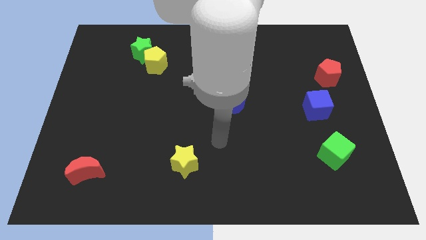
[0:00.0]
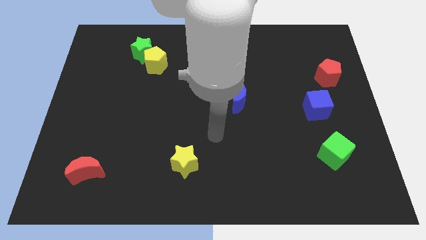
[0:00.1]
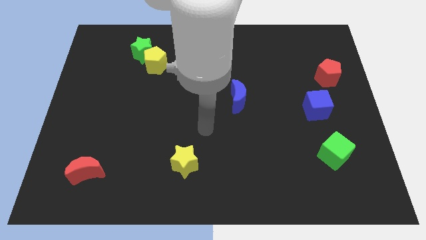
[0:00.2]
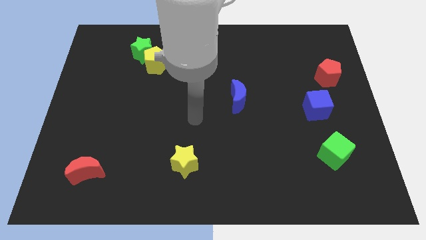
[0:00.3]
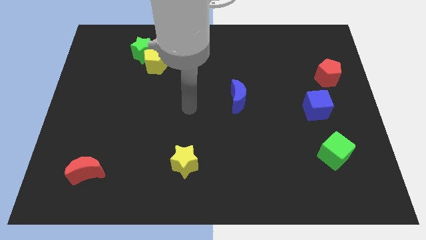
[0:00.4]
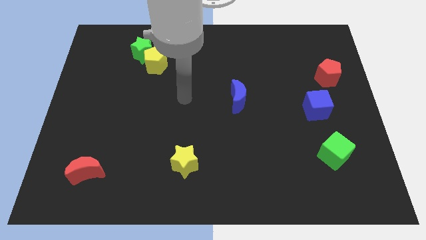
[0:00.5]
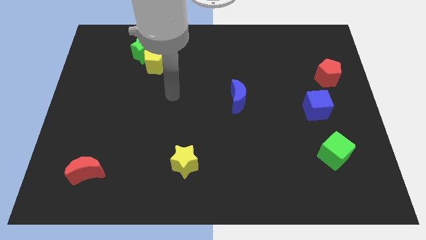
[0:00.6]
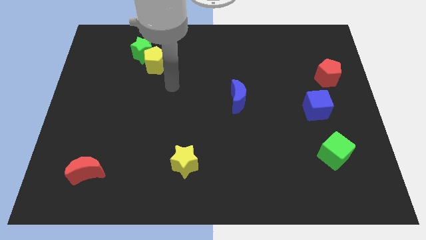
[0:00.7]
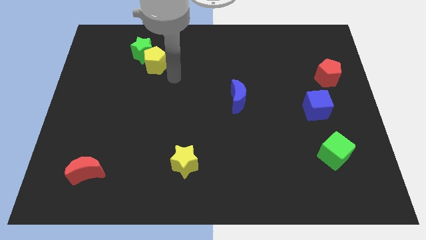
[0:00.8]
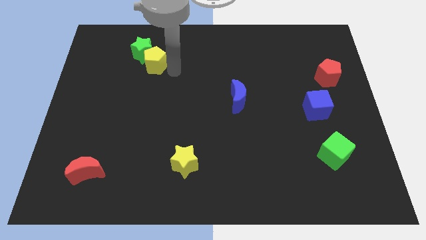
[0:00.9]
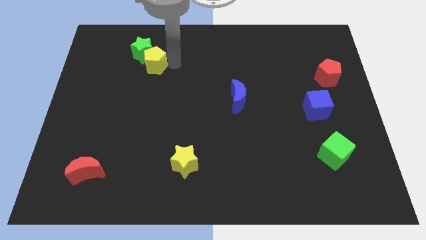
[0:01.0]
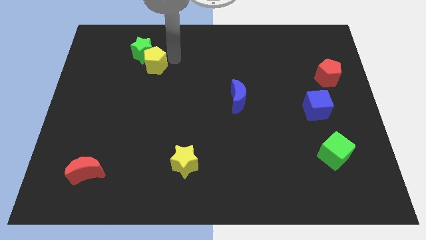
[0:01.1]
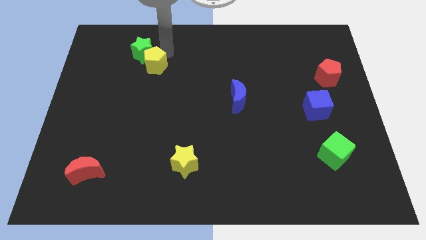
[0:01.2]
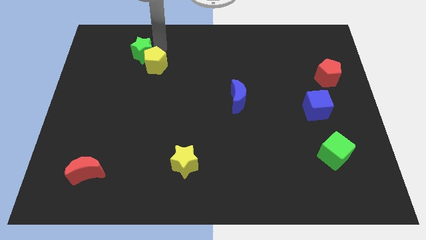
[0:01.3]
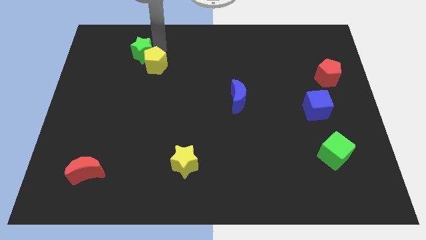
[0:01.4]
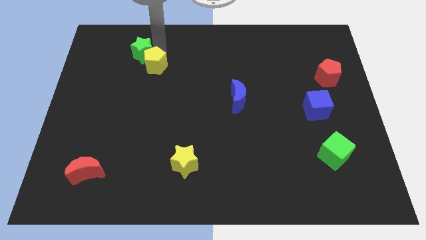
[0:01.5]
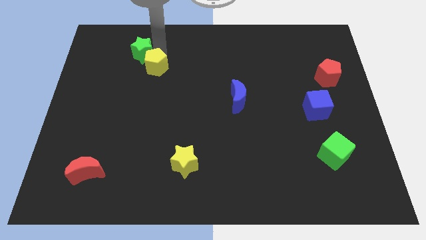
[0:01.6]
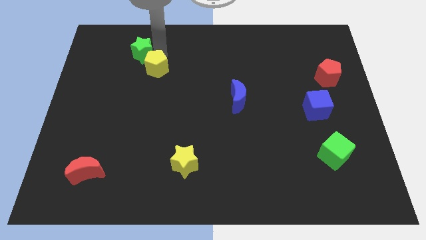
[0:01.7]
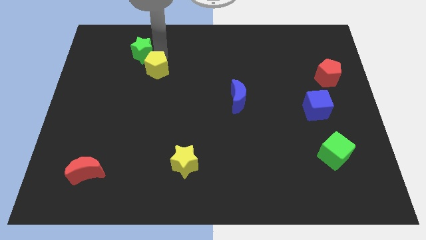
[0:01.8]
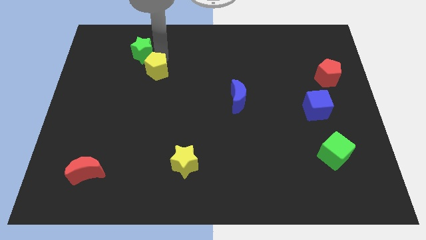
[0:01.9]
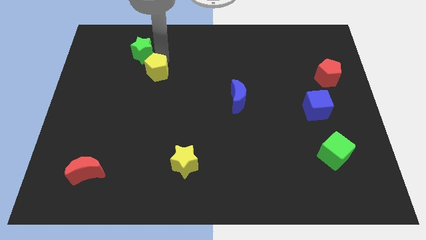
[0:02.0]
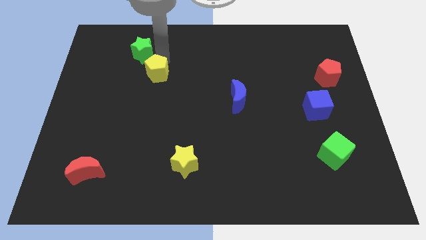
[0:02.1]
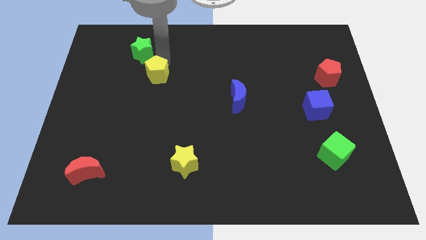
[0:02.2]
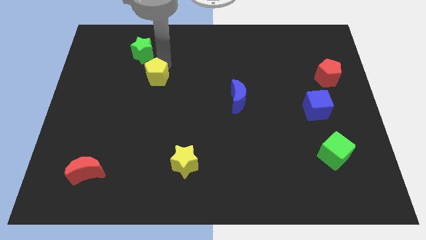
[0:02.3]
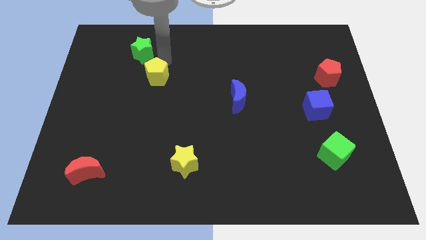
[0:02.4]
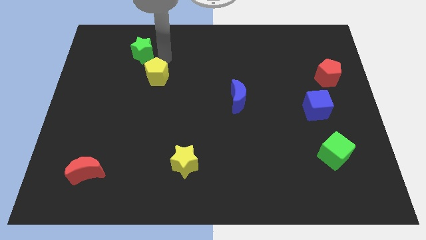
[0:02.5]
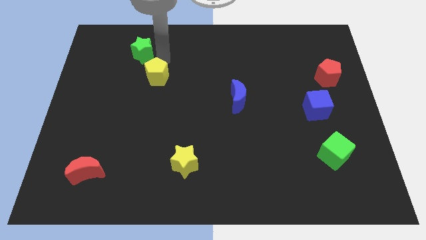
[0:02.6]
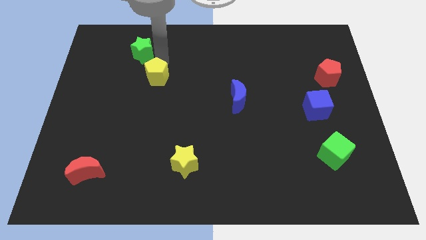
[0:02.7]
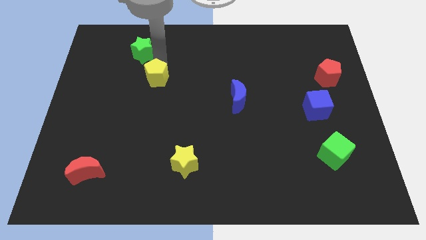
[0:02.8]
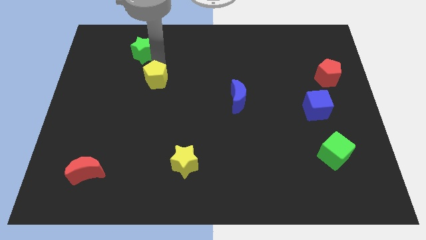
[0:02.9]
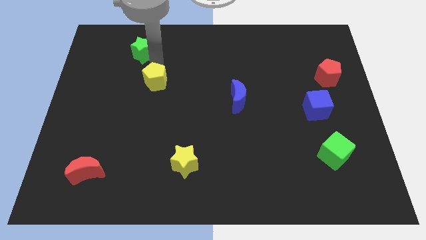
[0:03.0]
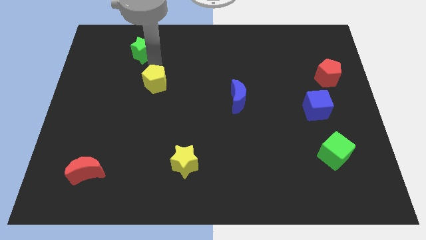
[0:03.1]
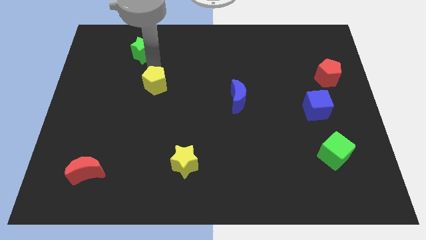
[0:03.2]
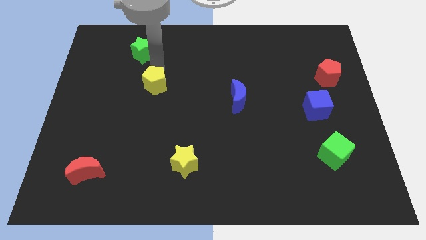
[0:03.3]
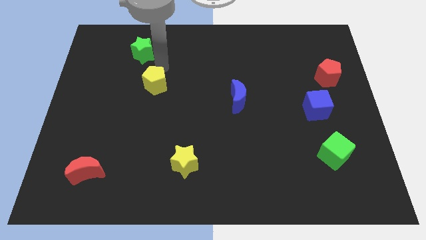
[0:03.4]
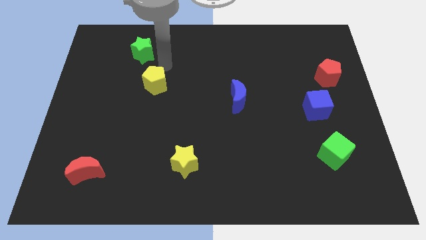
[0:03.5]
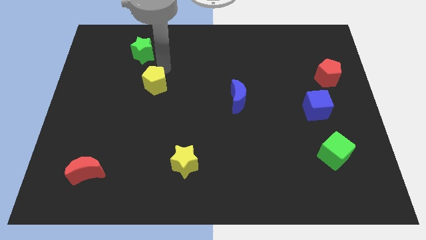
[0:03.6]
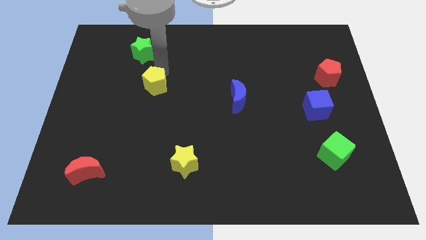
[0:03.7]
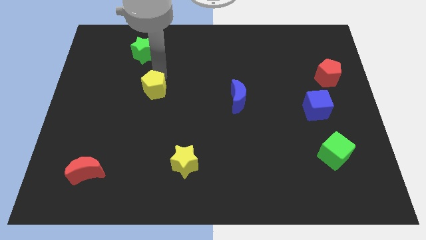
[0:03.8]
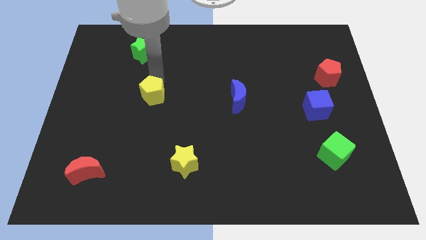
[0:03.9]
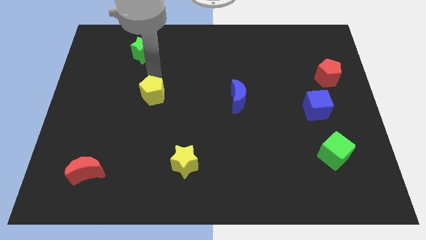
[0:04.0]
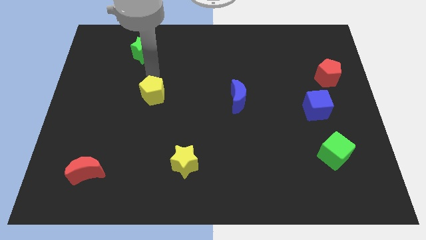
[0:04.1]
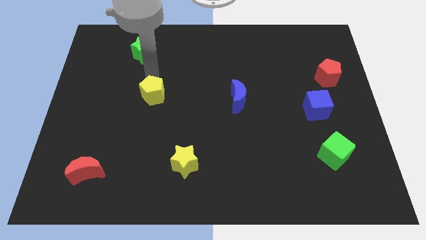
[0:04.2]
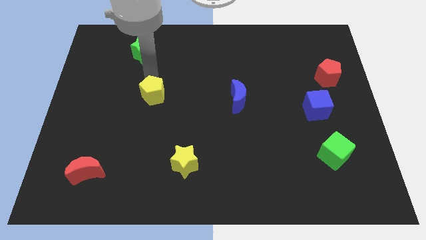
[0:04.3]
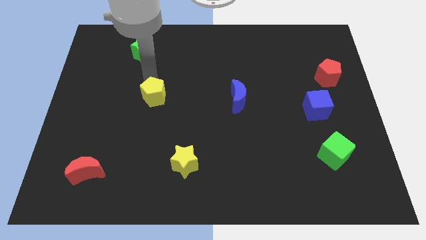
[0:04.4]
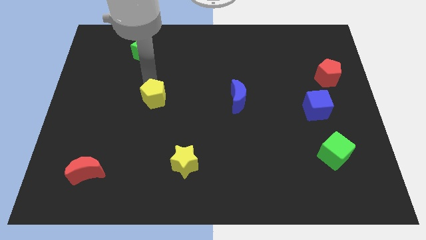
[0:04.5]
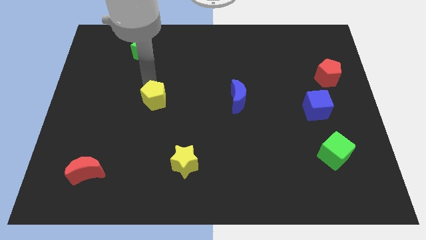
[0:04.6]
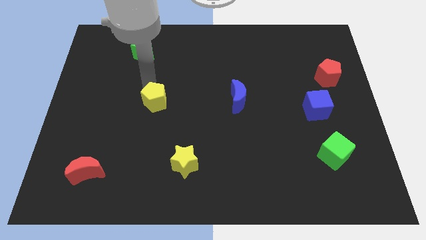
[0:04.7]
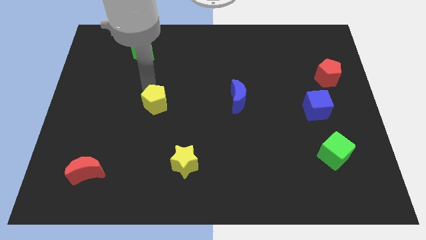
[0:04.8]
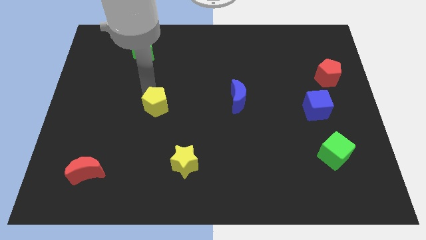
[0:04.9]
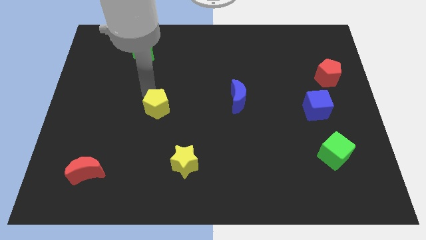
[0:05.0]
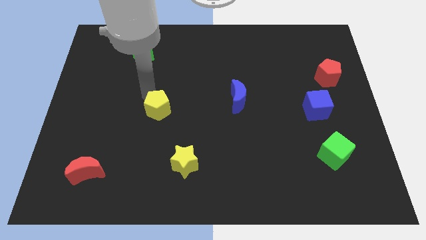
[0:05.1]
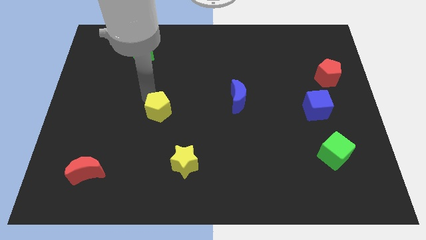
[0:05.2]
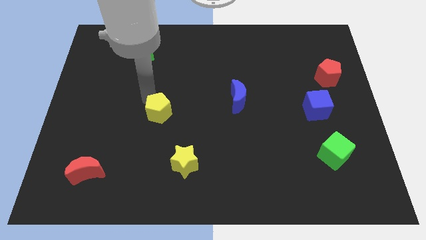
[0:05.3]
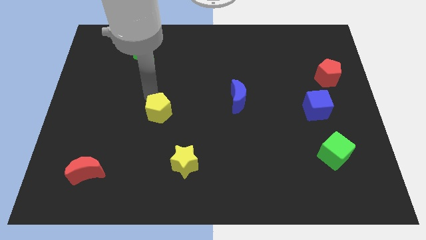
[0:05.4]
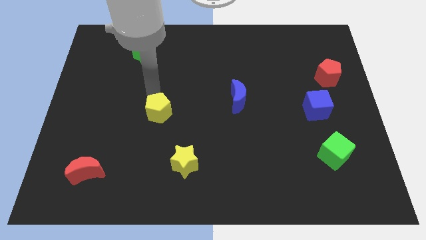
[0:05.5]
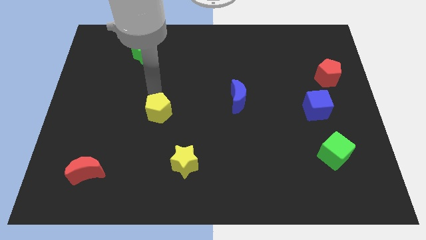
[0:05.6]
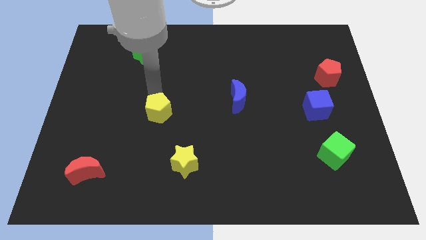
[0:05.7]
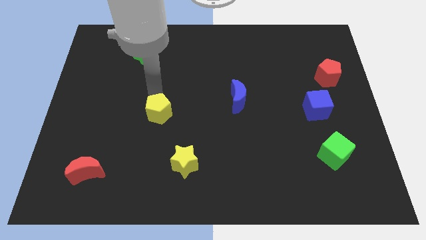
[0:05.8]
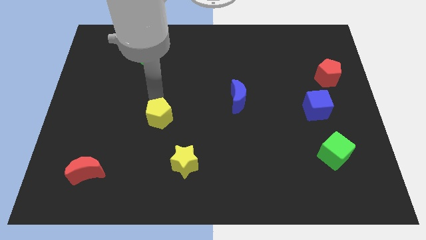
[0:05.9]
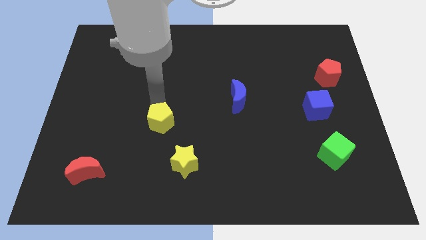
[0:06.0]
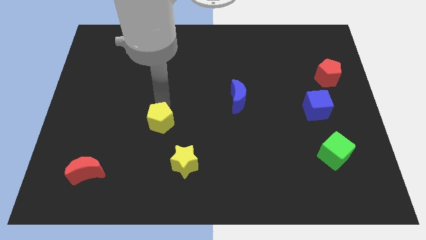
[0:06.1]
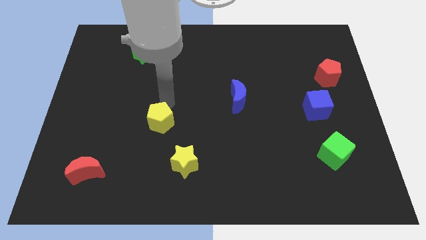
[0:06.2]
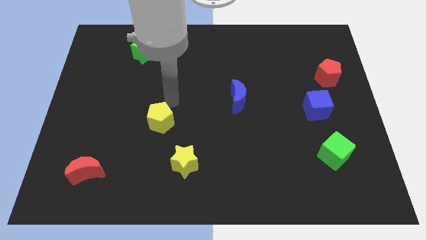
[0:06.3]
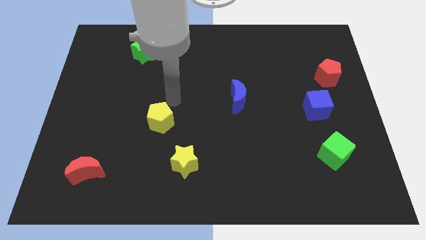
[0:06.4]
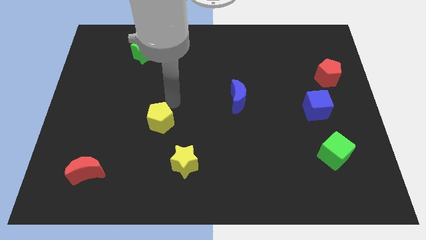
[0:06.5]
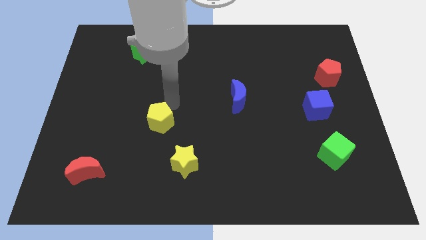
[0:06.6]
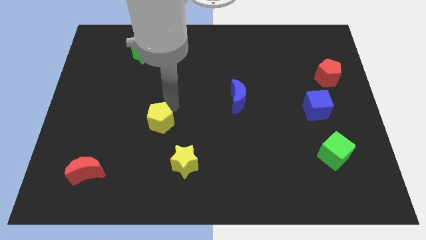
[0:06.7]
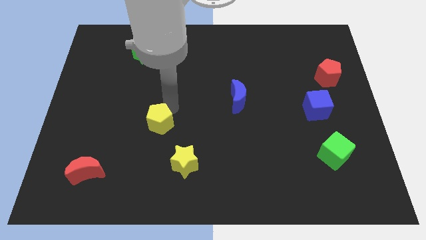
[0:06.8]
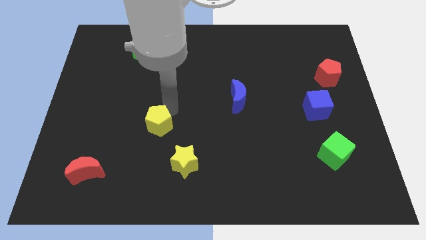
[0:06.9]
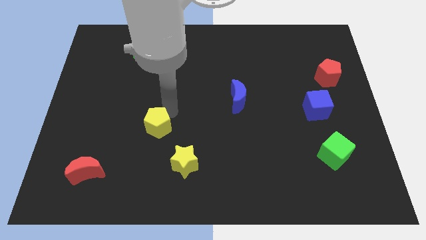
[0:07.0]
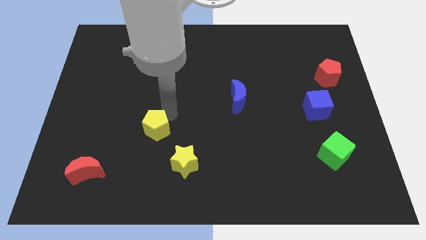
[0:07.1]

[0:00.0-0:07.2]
push the yellow pentagon down

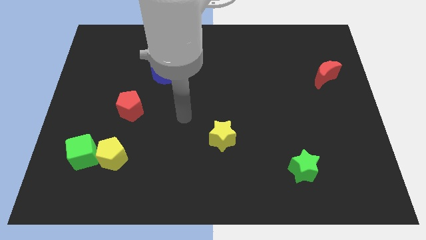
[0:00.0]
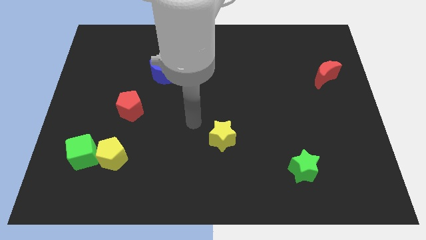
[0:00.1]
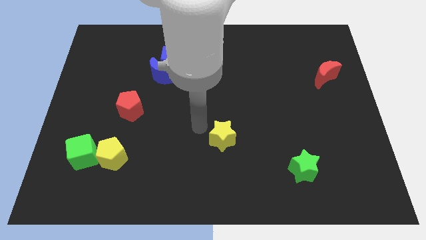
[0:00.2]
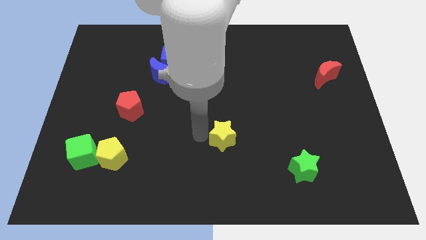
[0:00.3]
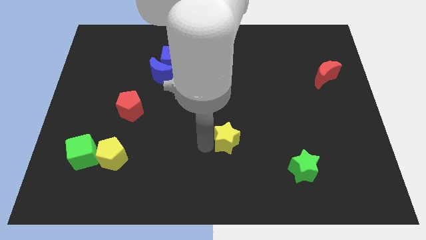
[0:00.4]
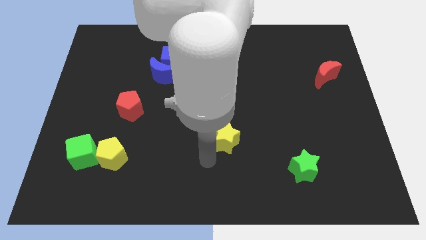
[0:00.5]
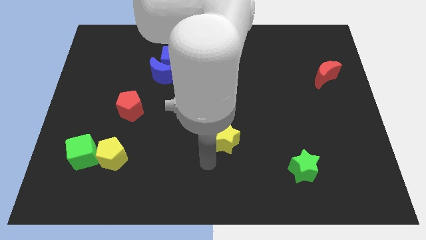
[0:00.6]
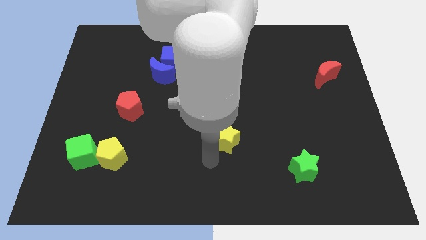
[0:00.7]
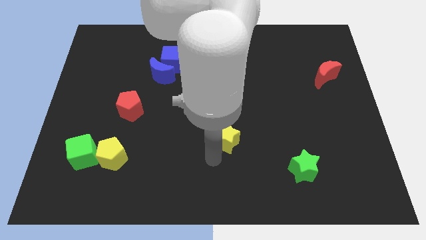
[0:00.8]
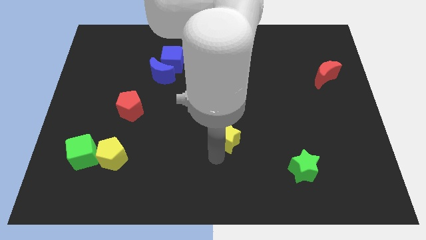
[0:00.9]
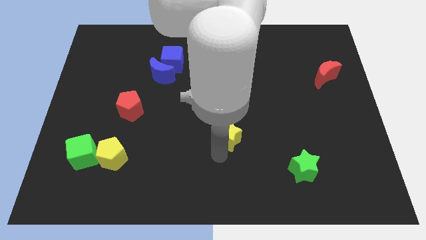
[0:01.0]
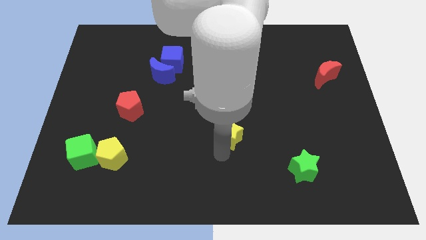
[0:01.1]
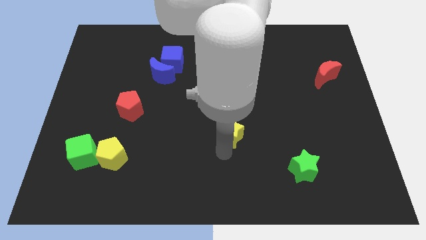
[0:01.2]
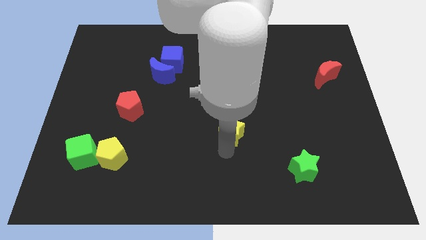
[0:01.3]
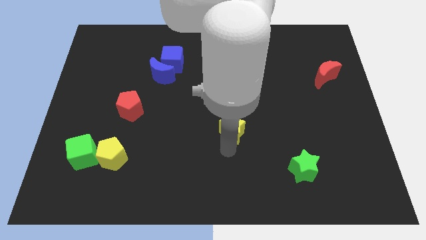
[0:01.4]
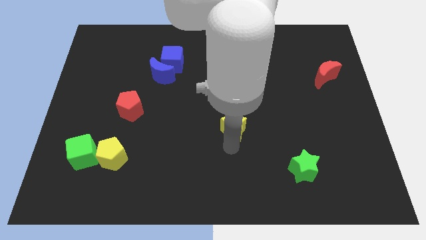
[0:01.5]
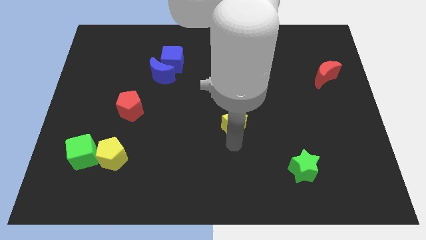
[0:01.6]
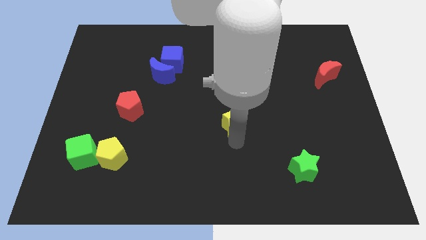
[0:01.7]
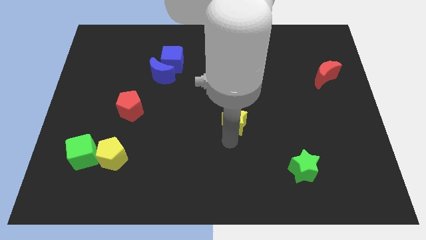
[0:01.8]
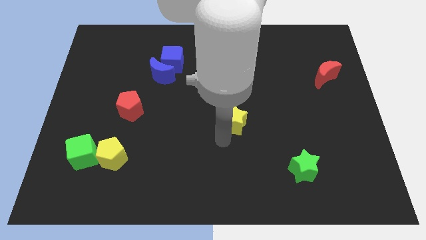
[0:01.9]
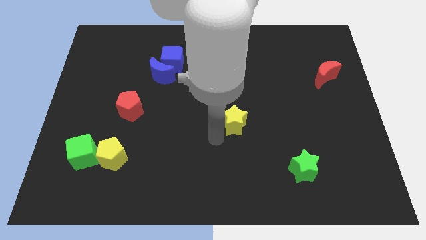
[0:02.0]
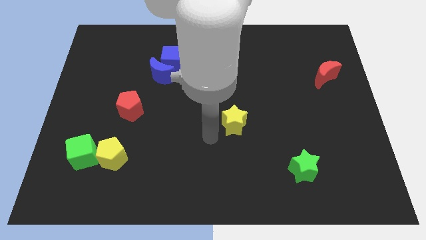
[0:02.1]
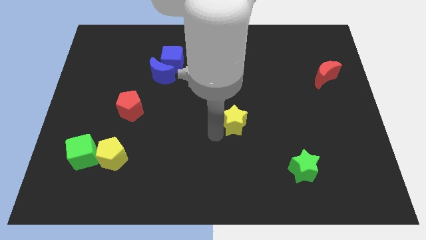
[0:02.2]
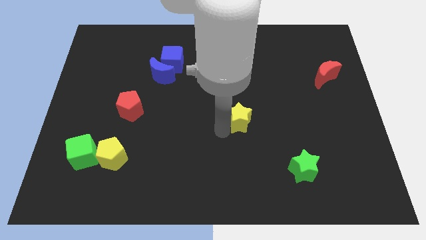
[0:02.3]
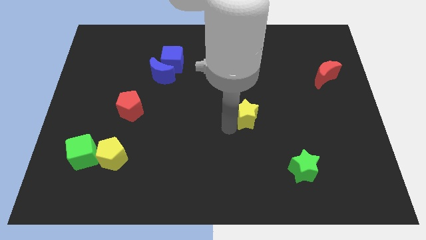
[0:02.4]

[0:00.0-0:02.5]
push the yellow star up and then to the right a bit
